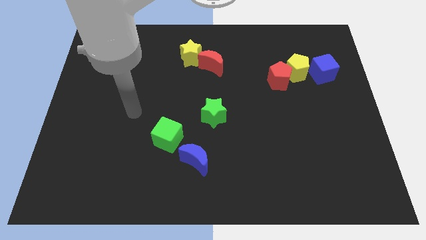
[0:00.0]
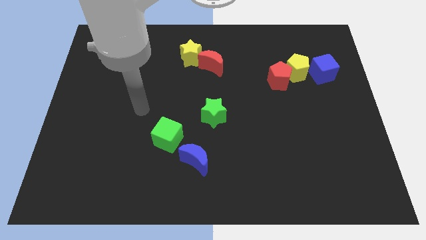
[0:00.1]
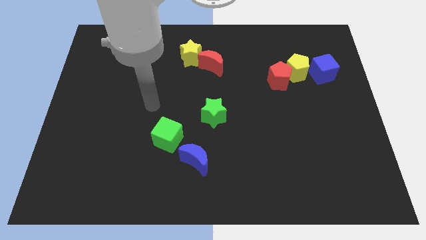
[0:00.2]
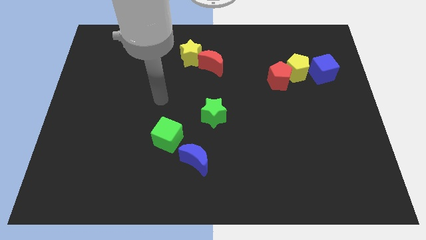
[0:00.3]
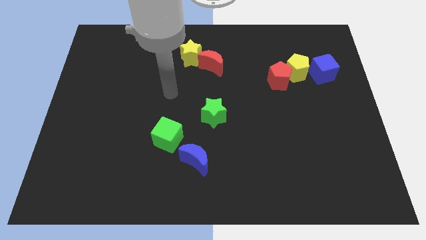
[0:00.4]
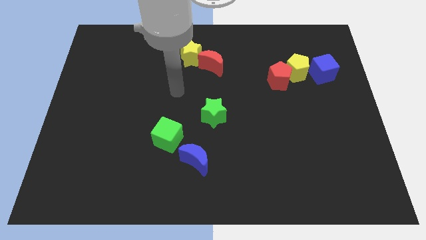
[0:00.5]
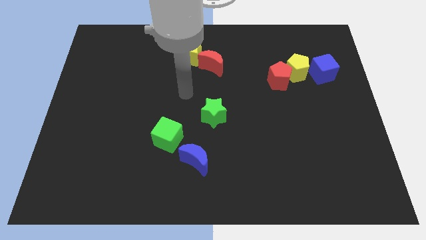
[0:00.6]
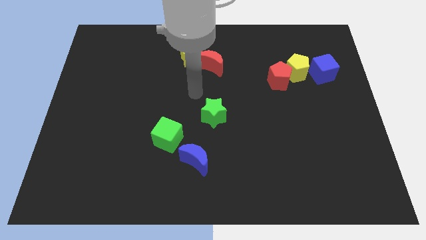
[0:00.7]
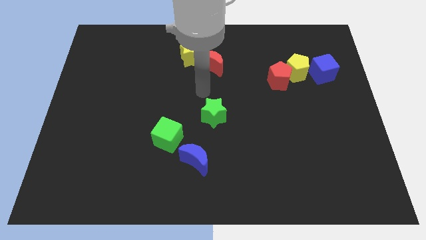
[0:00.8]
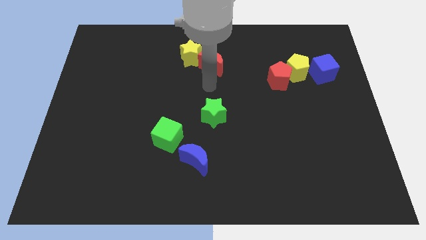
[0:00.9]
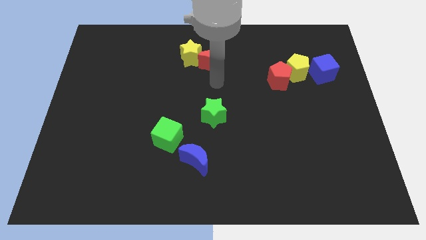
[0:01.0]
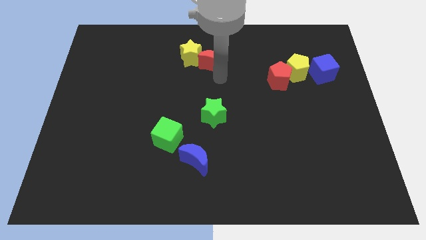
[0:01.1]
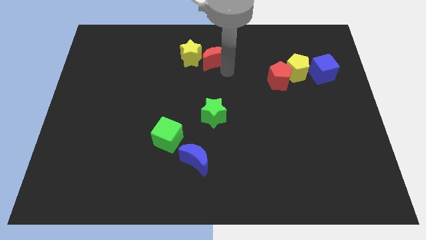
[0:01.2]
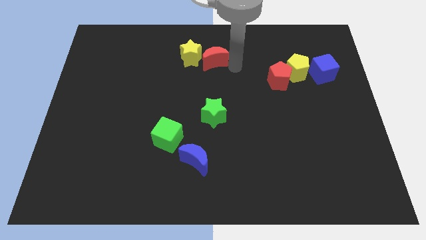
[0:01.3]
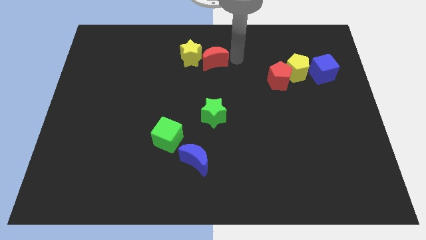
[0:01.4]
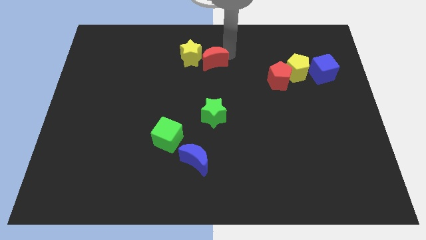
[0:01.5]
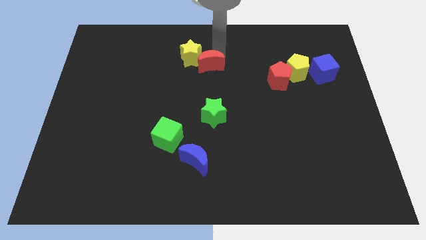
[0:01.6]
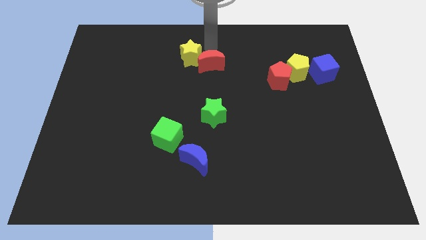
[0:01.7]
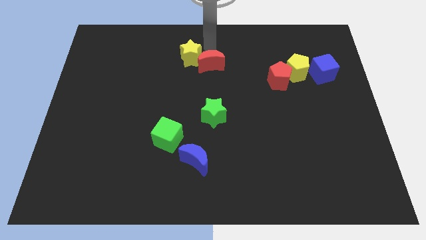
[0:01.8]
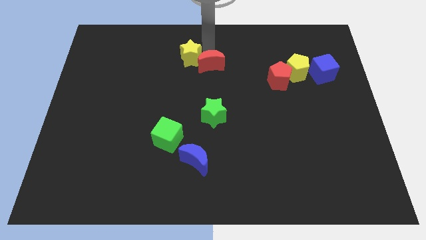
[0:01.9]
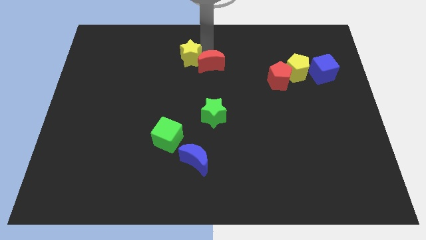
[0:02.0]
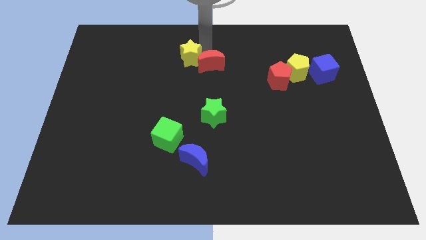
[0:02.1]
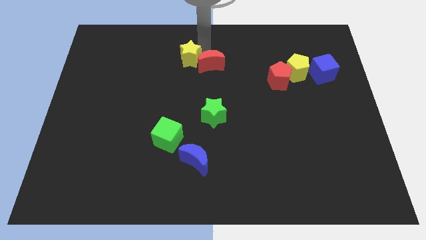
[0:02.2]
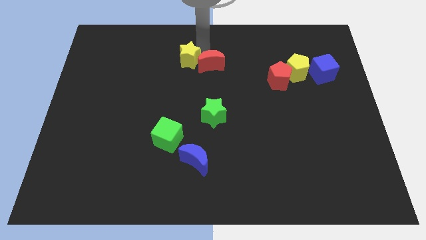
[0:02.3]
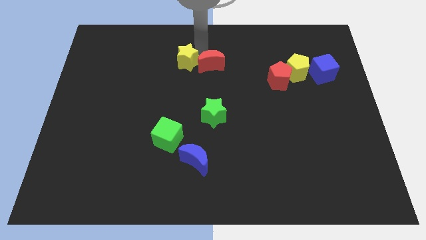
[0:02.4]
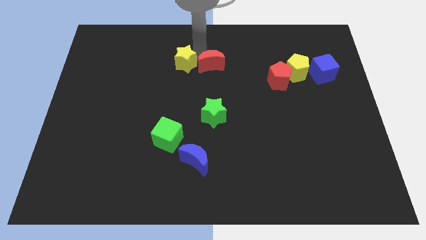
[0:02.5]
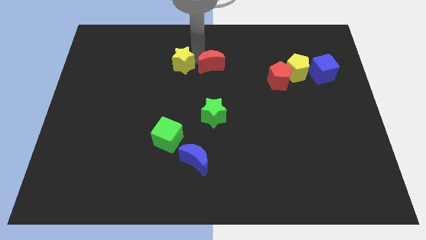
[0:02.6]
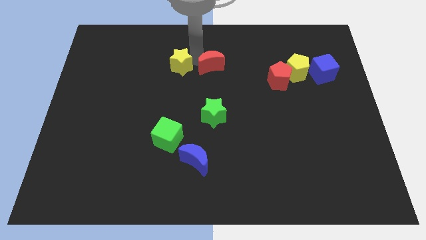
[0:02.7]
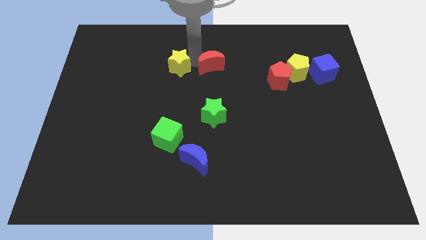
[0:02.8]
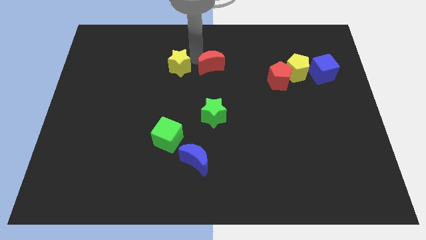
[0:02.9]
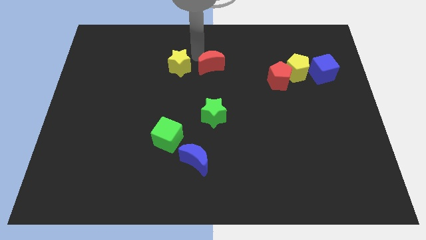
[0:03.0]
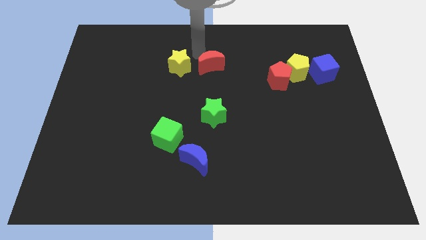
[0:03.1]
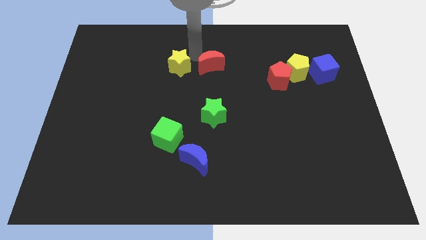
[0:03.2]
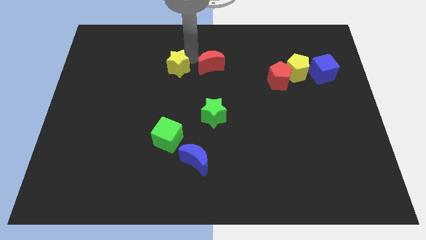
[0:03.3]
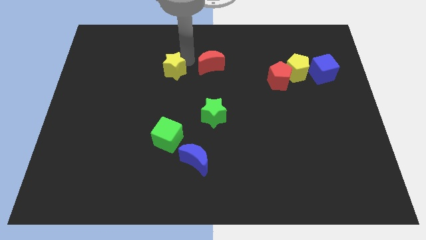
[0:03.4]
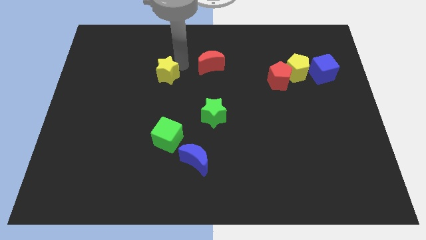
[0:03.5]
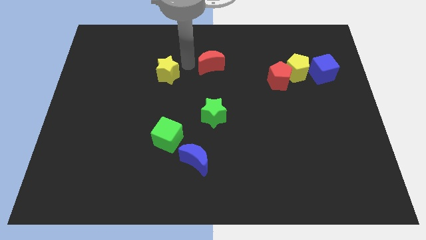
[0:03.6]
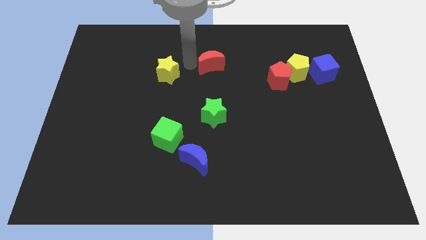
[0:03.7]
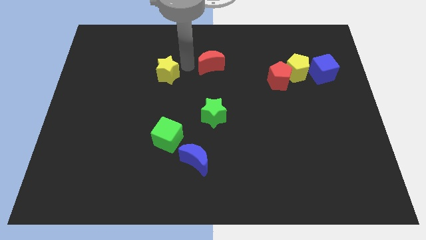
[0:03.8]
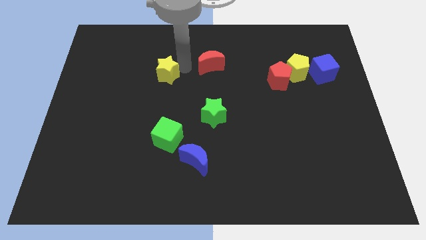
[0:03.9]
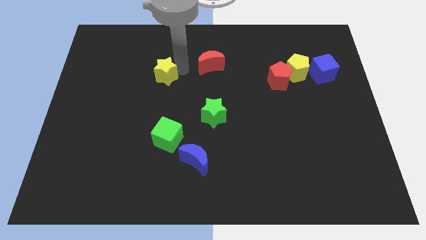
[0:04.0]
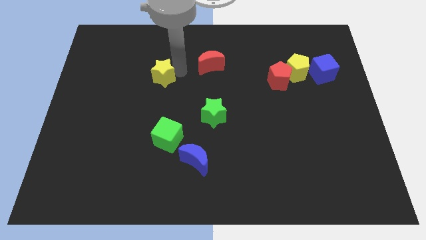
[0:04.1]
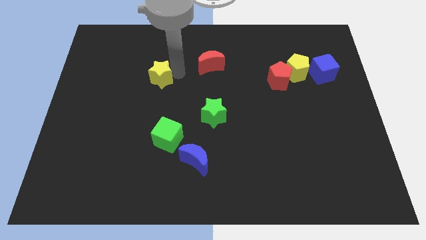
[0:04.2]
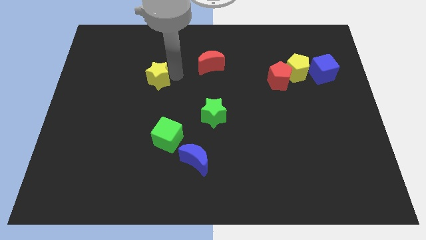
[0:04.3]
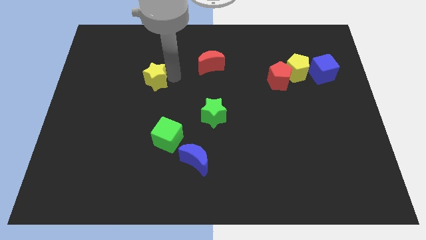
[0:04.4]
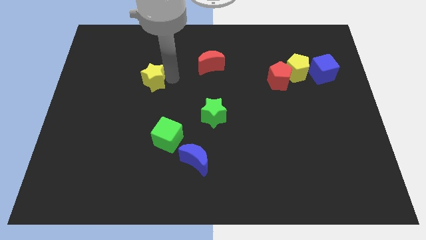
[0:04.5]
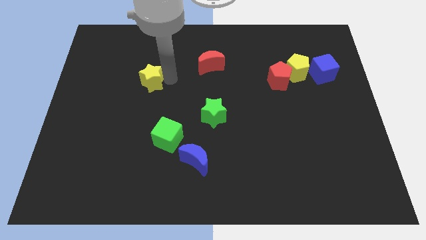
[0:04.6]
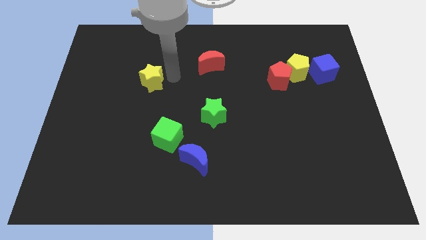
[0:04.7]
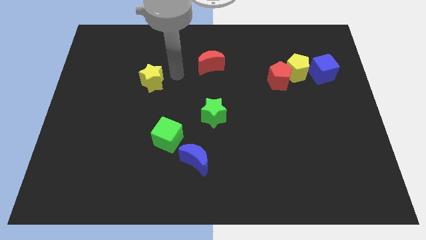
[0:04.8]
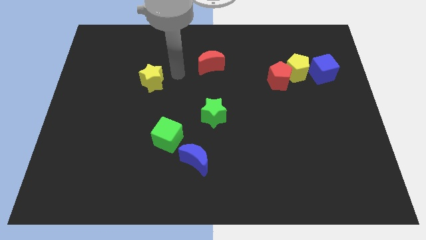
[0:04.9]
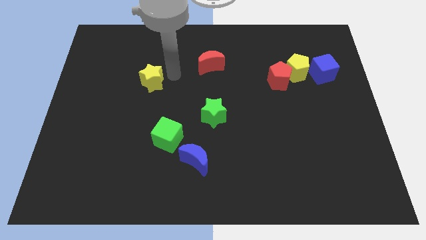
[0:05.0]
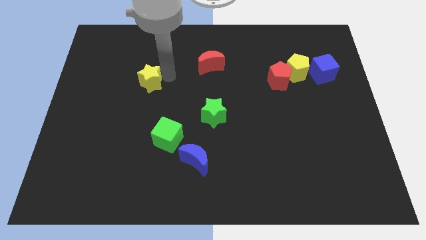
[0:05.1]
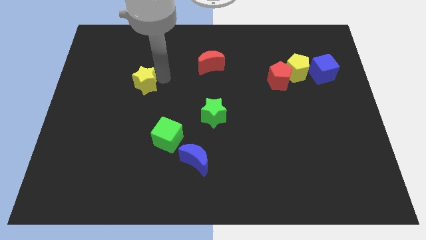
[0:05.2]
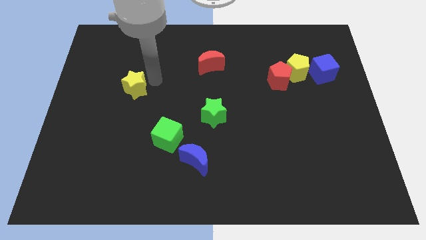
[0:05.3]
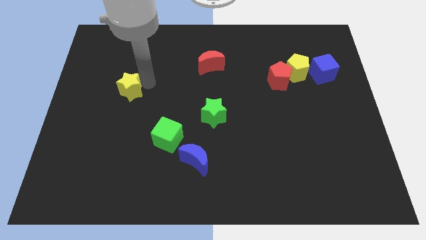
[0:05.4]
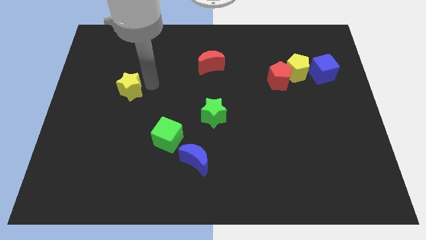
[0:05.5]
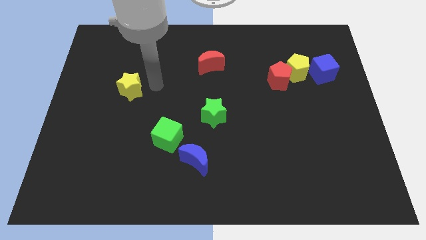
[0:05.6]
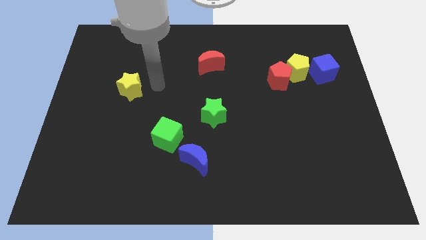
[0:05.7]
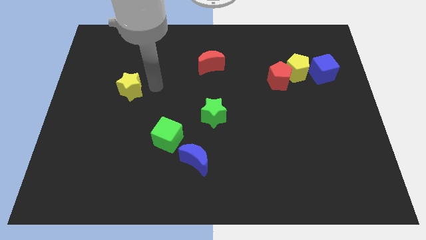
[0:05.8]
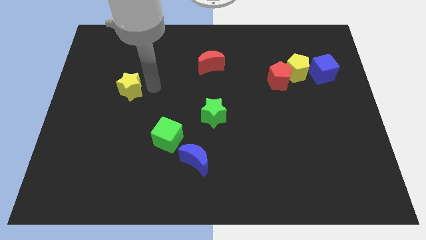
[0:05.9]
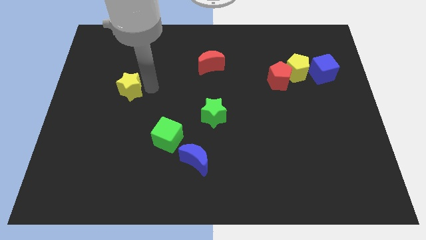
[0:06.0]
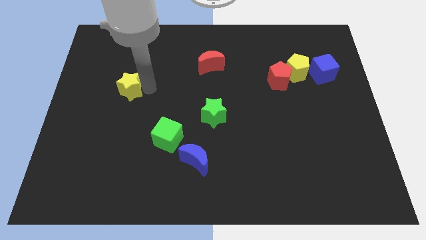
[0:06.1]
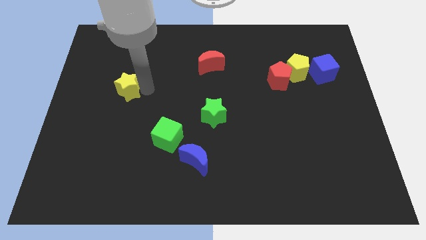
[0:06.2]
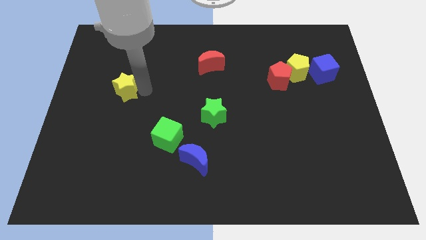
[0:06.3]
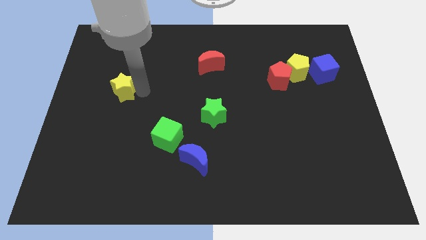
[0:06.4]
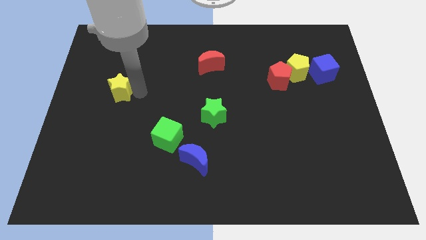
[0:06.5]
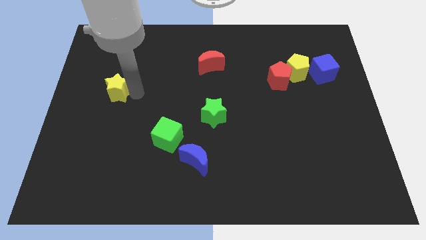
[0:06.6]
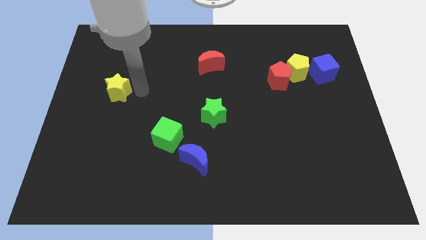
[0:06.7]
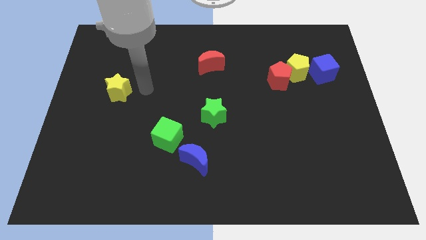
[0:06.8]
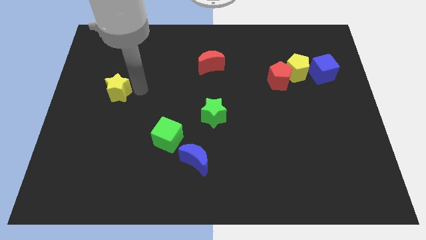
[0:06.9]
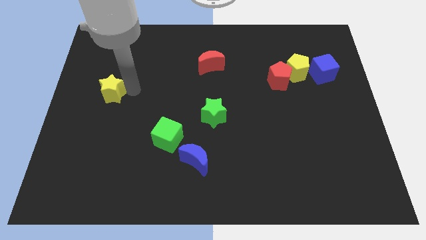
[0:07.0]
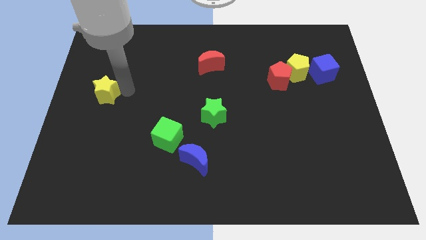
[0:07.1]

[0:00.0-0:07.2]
slide the yellow star to the left side
